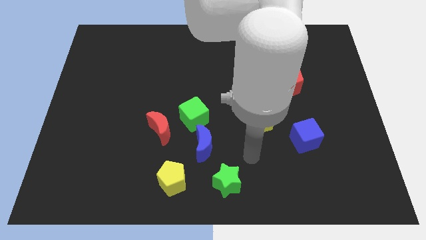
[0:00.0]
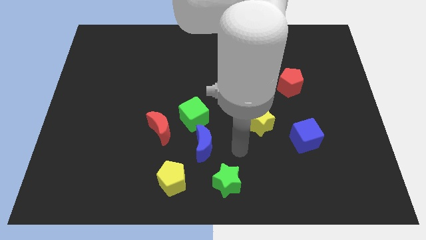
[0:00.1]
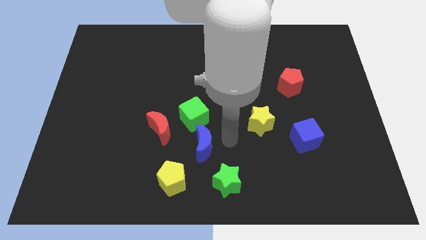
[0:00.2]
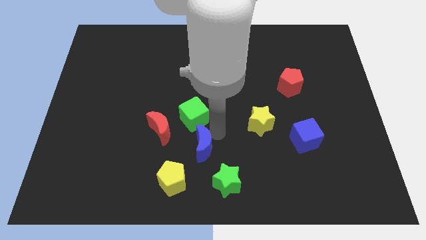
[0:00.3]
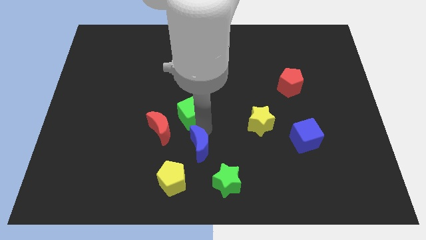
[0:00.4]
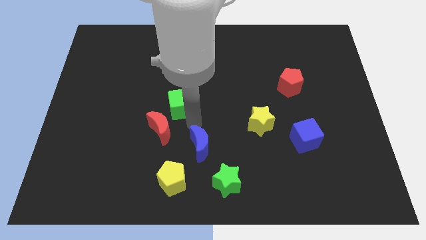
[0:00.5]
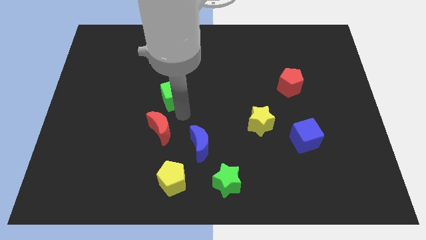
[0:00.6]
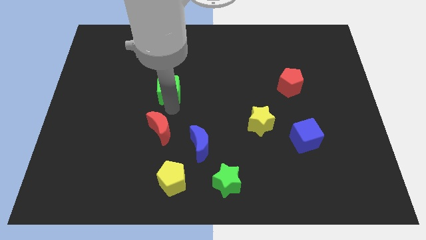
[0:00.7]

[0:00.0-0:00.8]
pull the red moon apart from the green cube

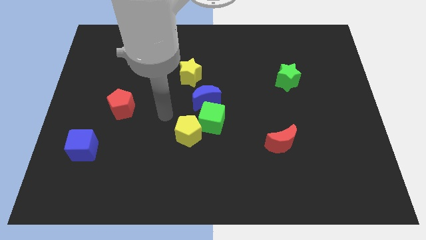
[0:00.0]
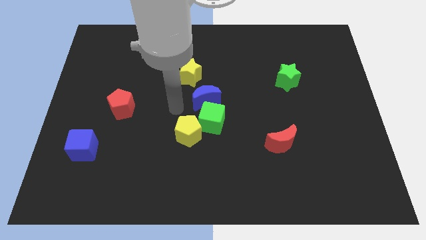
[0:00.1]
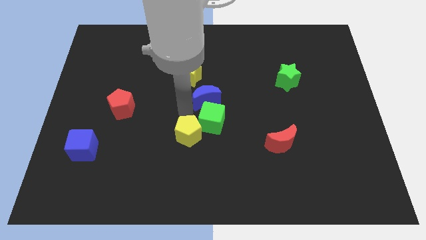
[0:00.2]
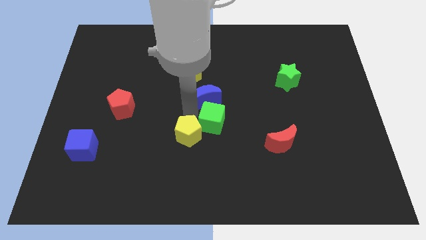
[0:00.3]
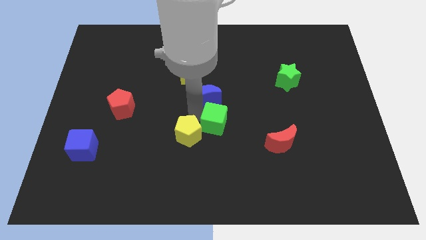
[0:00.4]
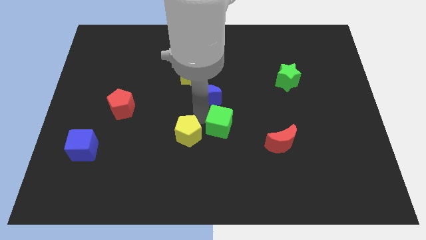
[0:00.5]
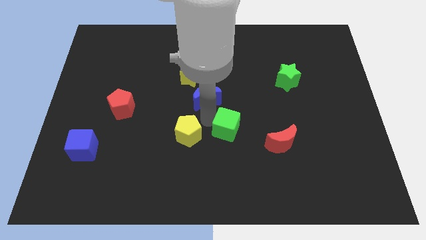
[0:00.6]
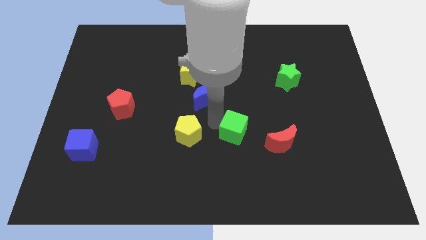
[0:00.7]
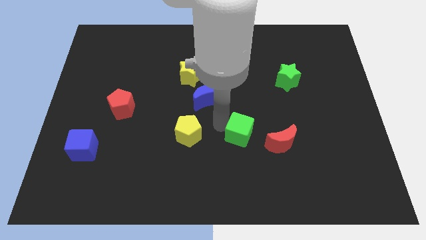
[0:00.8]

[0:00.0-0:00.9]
pull the green cube apart from the yellow pentagon and blue moon

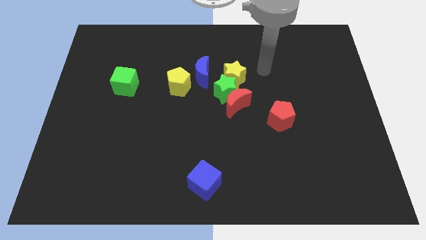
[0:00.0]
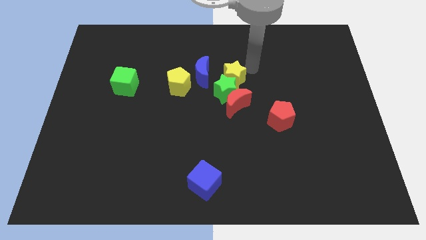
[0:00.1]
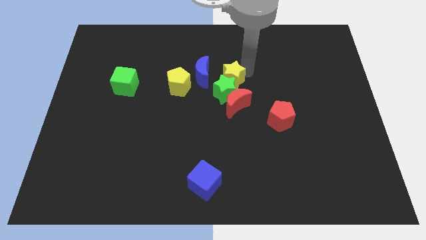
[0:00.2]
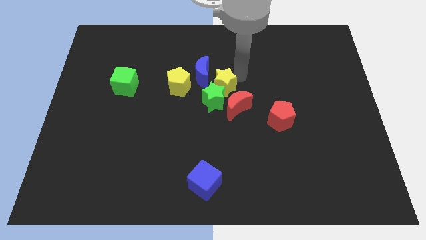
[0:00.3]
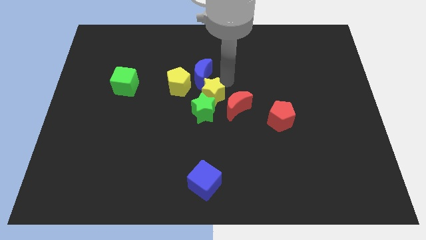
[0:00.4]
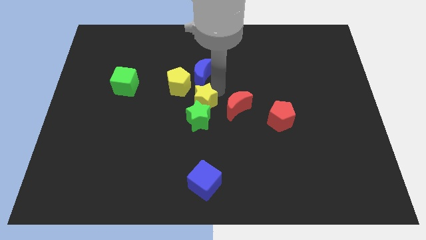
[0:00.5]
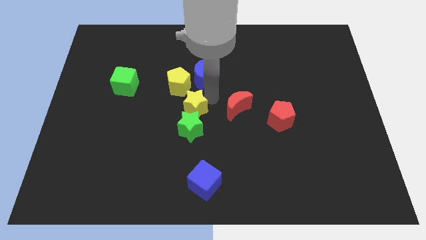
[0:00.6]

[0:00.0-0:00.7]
move the green star away from the red moon, yellow star, and blue moon

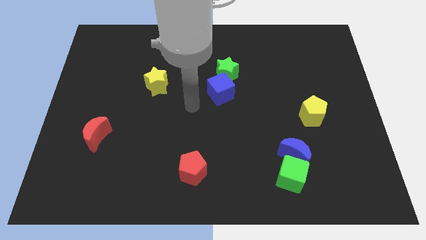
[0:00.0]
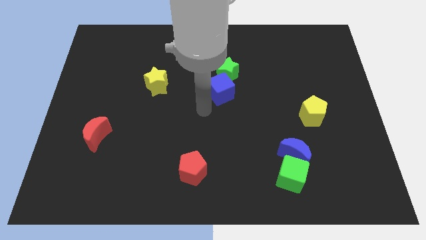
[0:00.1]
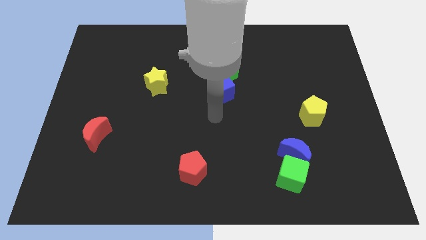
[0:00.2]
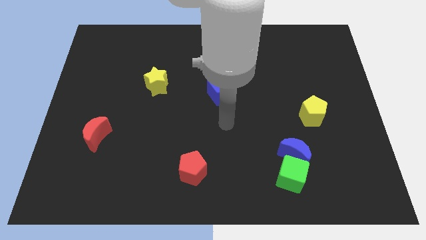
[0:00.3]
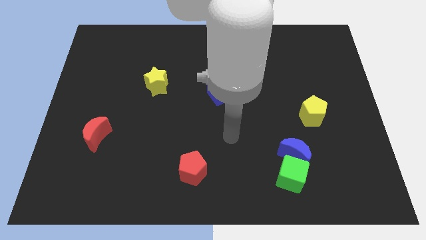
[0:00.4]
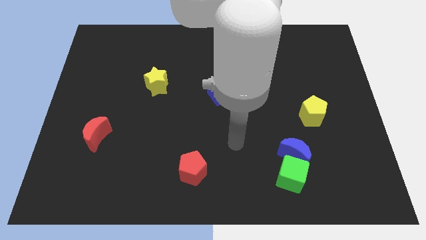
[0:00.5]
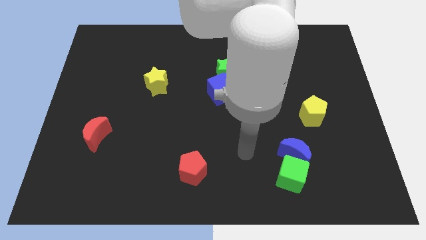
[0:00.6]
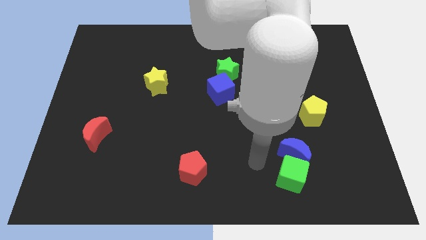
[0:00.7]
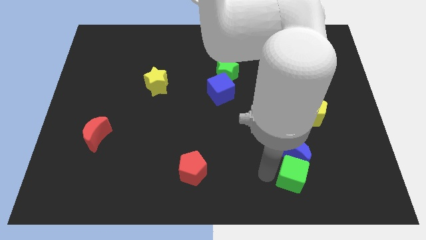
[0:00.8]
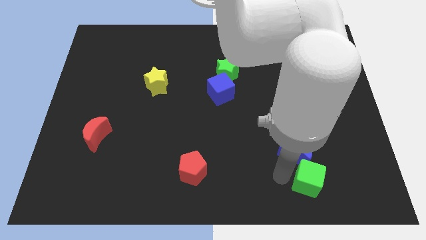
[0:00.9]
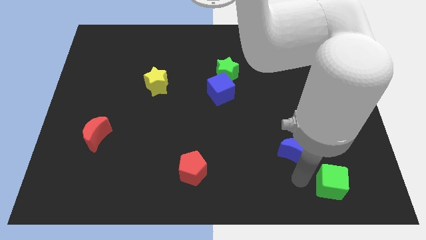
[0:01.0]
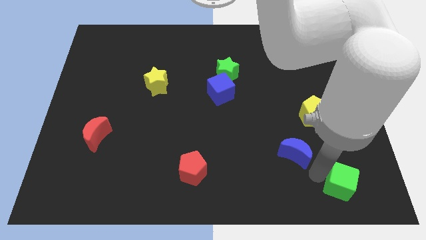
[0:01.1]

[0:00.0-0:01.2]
move the blue moon away from the green cube

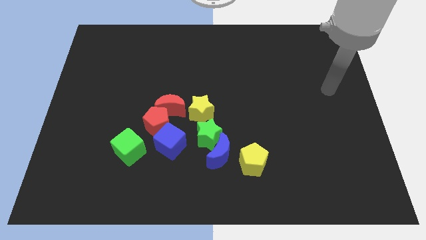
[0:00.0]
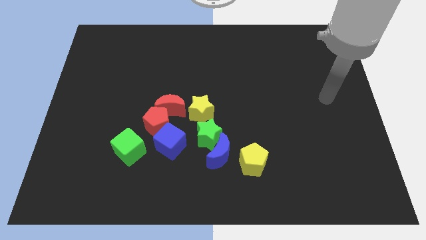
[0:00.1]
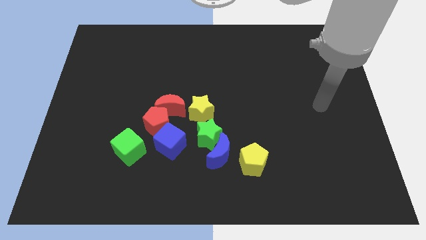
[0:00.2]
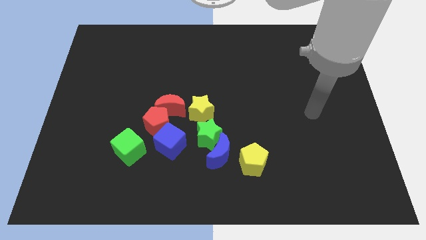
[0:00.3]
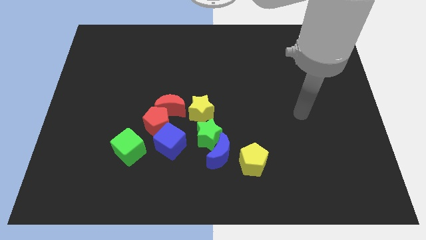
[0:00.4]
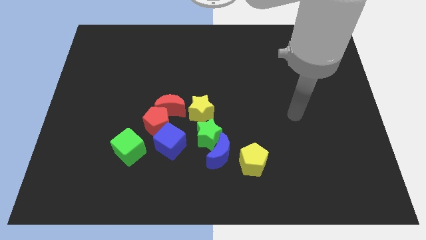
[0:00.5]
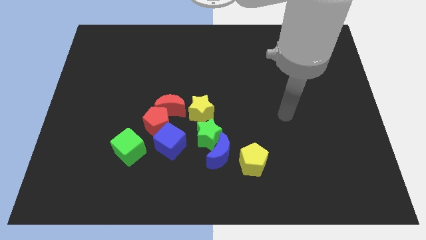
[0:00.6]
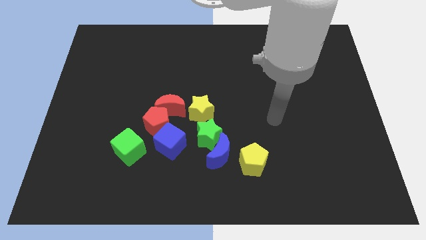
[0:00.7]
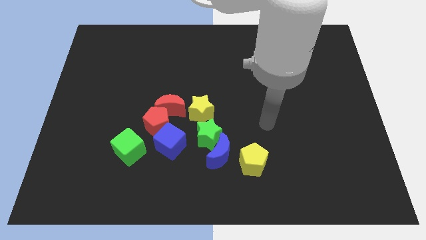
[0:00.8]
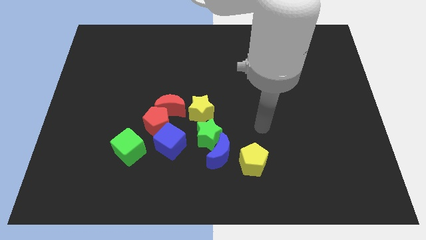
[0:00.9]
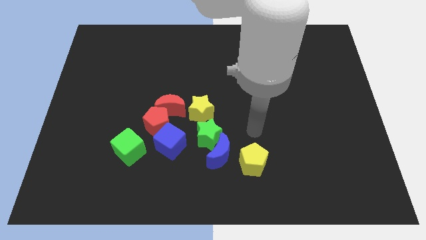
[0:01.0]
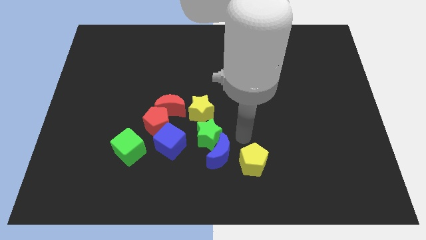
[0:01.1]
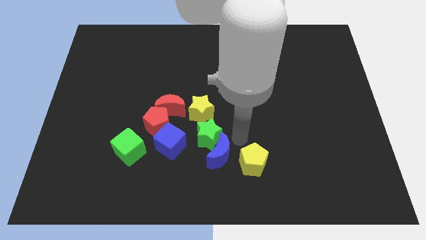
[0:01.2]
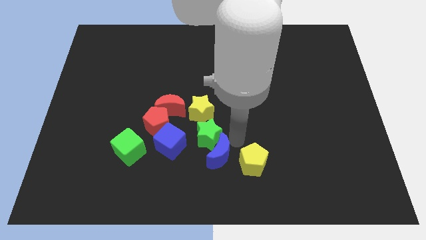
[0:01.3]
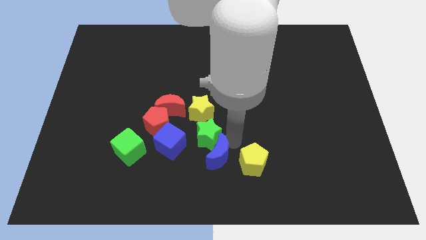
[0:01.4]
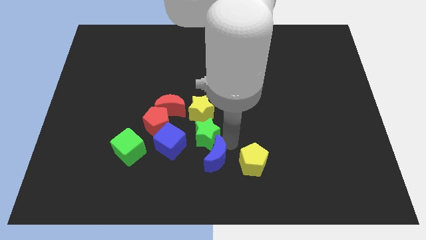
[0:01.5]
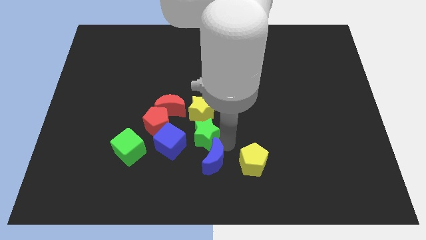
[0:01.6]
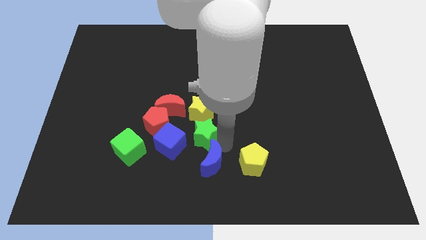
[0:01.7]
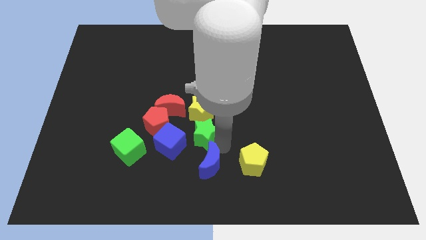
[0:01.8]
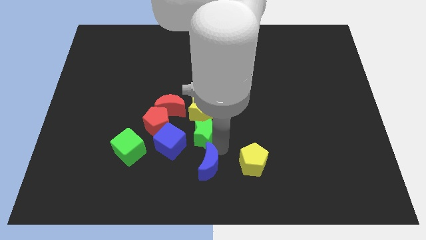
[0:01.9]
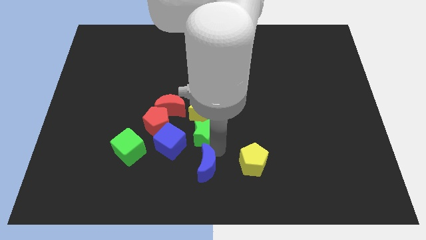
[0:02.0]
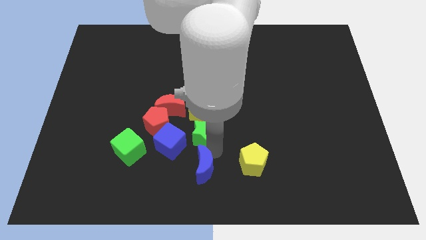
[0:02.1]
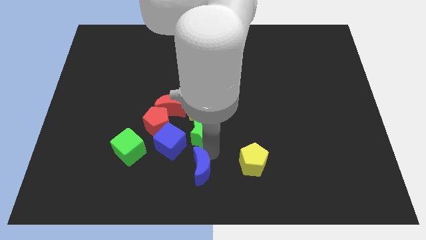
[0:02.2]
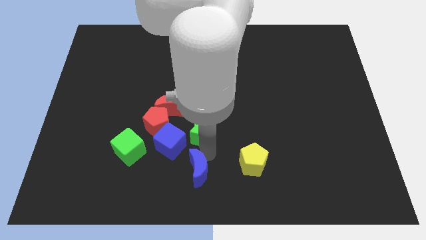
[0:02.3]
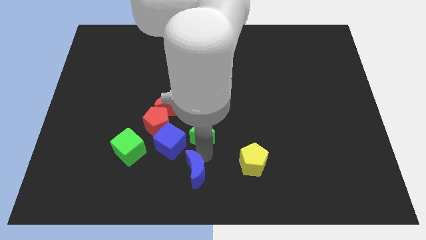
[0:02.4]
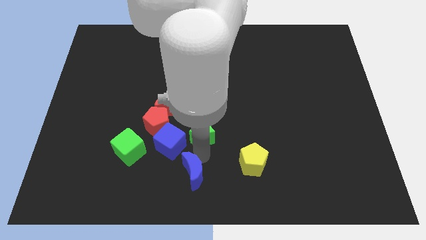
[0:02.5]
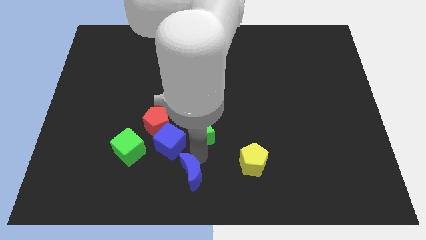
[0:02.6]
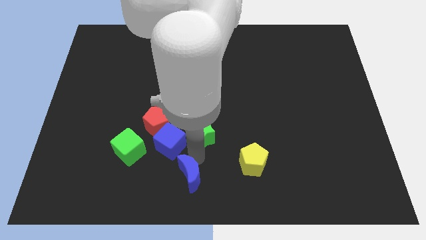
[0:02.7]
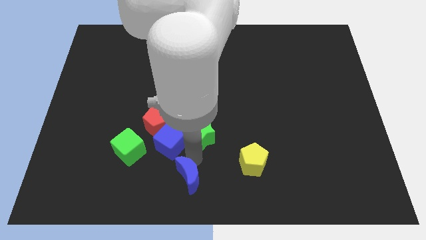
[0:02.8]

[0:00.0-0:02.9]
separate the blue moon from the green star and yellow pentagon

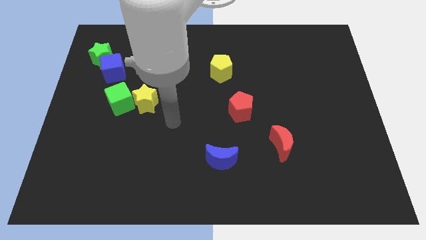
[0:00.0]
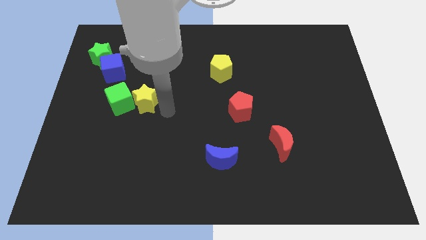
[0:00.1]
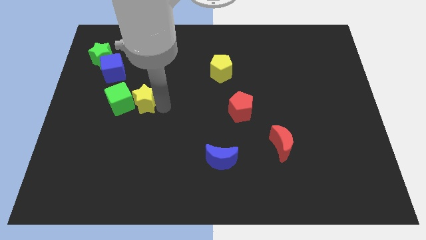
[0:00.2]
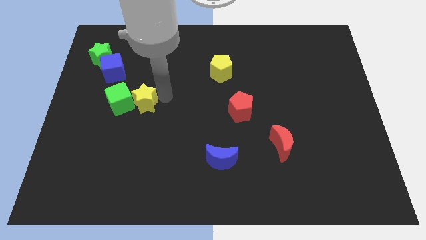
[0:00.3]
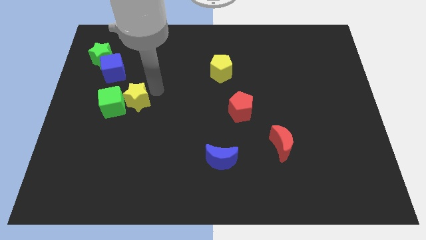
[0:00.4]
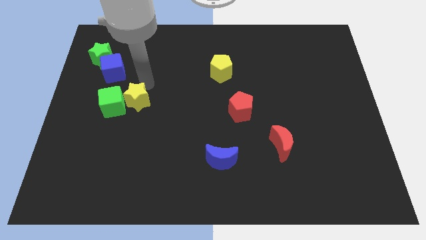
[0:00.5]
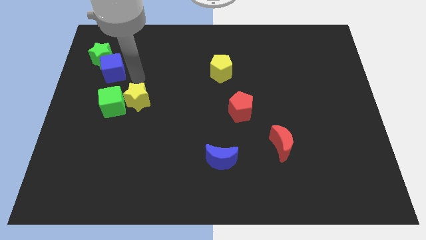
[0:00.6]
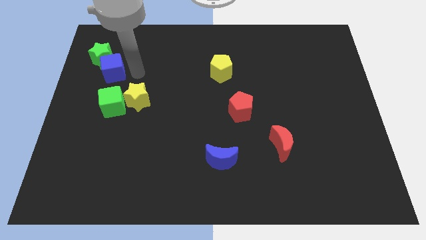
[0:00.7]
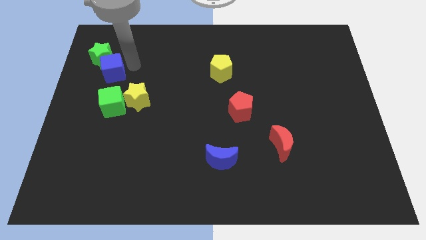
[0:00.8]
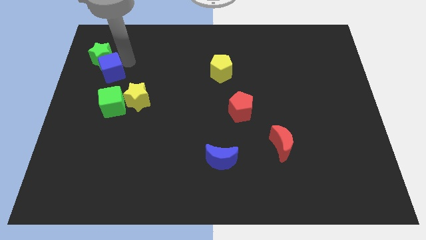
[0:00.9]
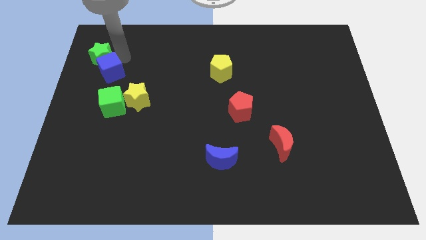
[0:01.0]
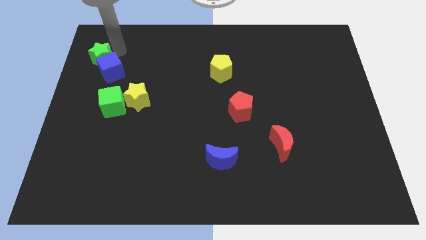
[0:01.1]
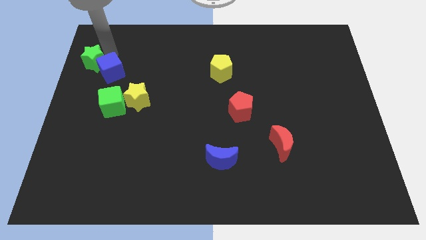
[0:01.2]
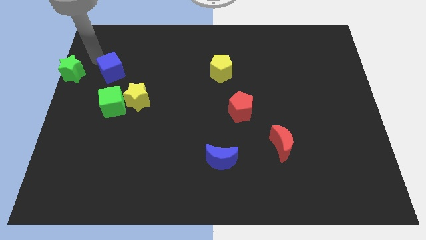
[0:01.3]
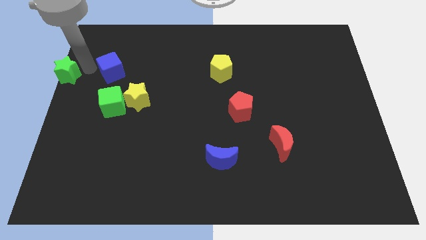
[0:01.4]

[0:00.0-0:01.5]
move the blue cube away from the green star

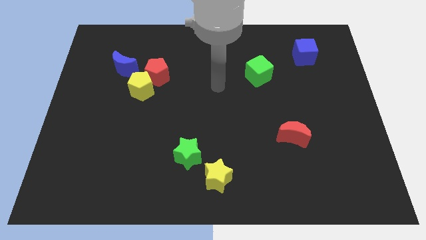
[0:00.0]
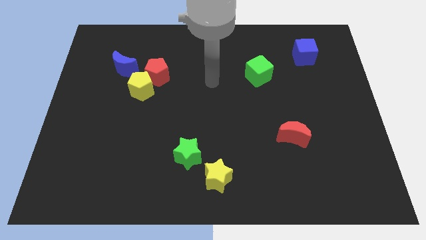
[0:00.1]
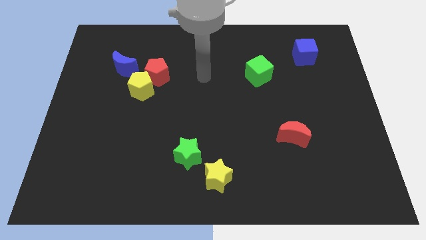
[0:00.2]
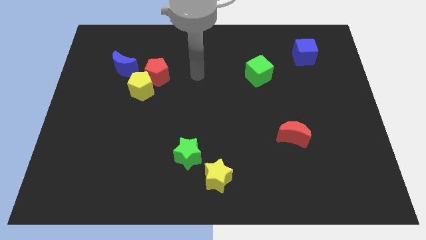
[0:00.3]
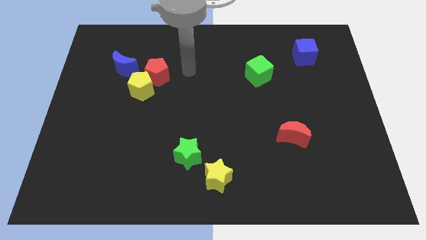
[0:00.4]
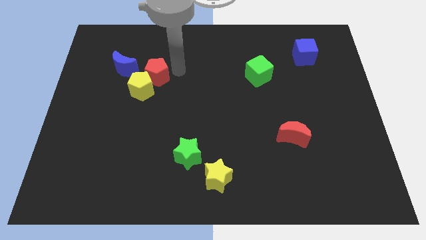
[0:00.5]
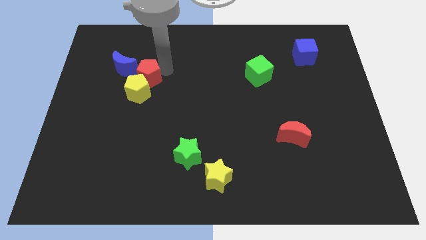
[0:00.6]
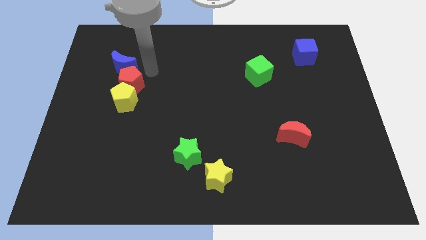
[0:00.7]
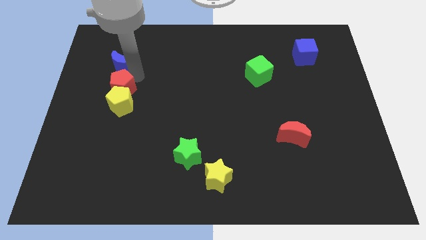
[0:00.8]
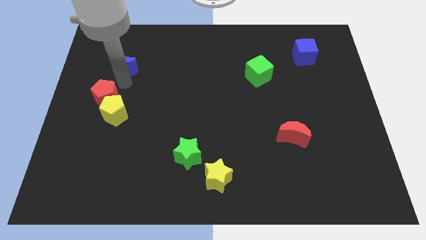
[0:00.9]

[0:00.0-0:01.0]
separate the yellow pentagon from the red pentagon and blue moon

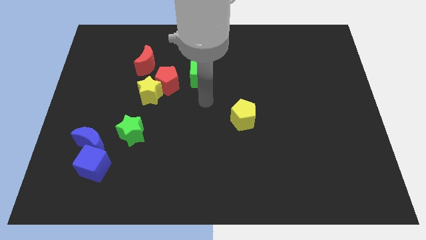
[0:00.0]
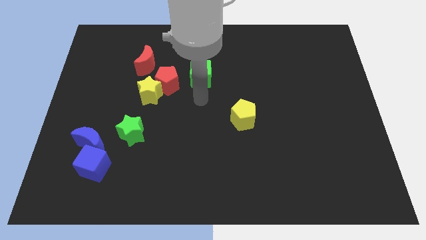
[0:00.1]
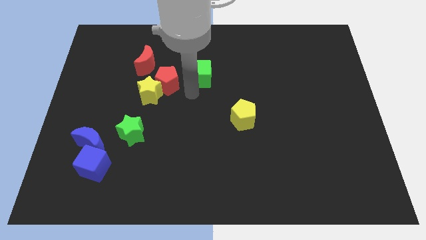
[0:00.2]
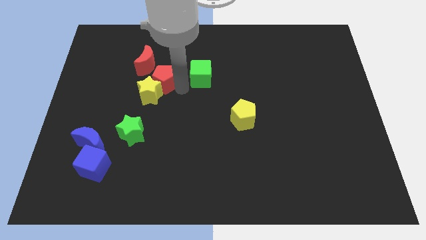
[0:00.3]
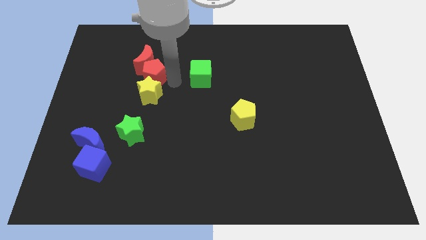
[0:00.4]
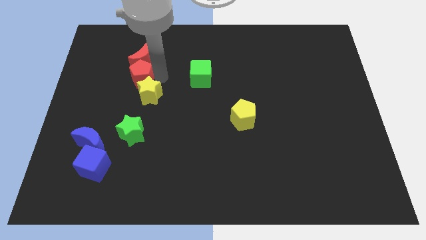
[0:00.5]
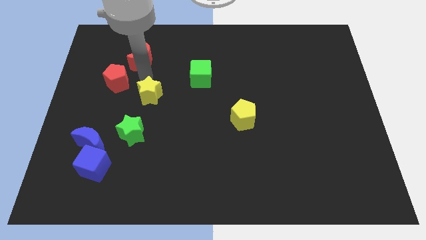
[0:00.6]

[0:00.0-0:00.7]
move the yellow star away from the red pentagon
